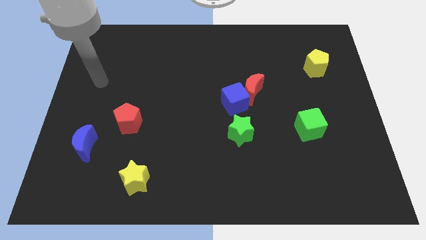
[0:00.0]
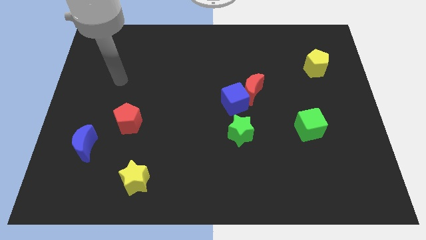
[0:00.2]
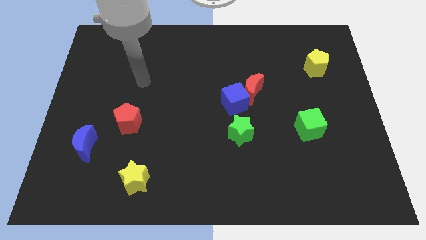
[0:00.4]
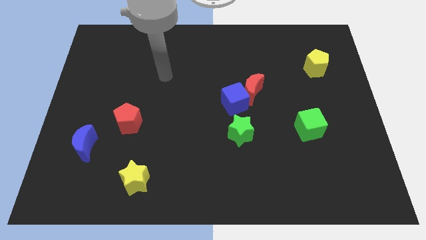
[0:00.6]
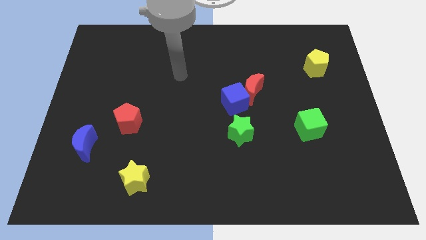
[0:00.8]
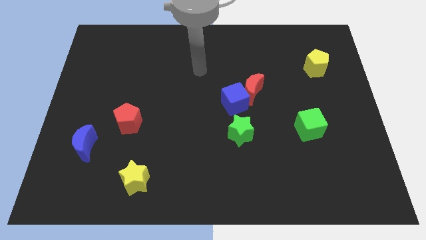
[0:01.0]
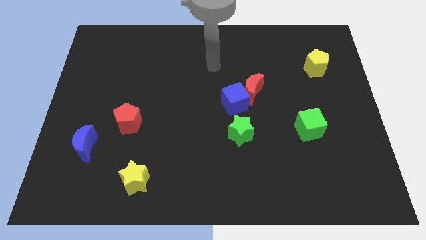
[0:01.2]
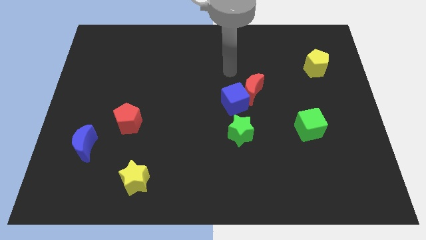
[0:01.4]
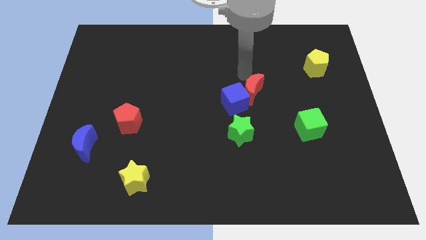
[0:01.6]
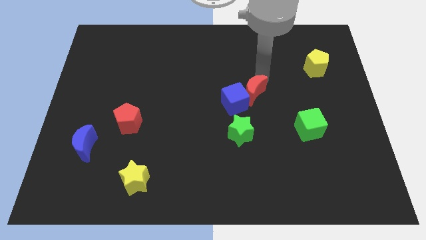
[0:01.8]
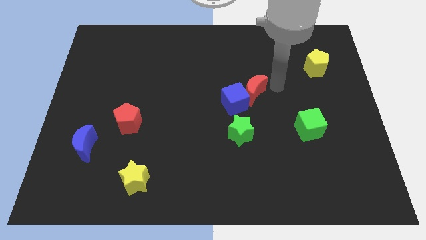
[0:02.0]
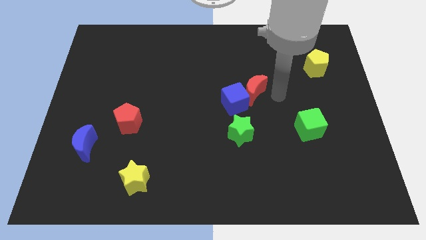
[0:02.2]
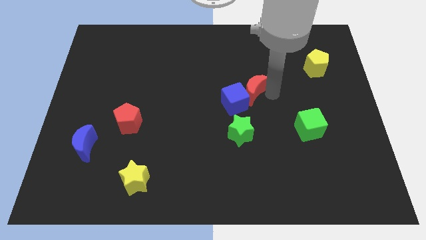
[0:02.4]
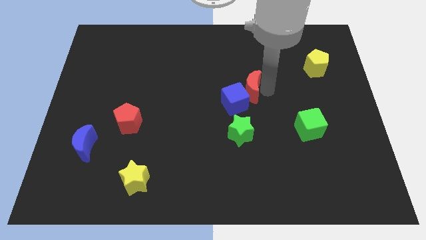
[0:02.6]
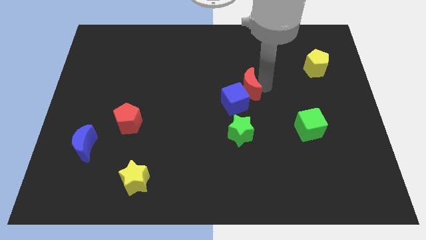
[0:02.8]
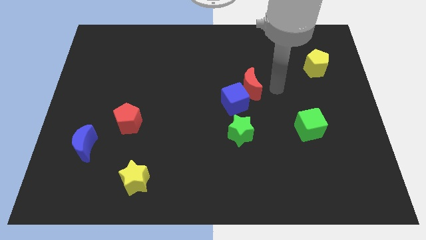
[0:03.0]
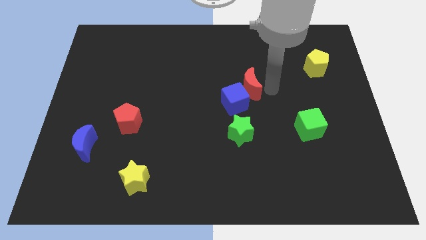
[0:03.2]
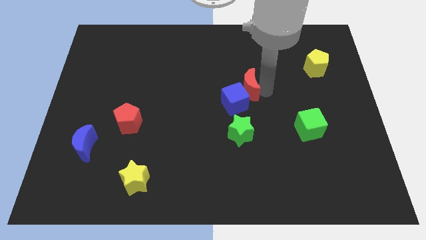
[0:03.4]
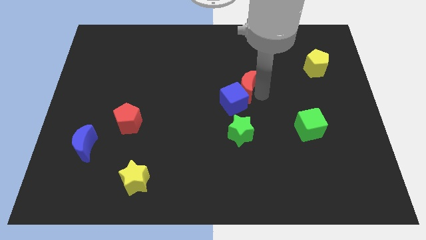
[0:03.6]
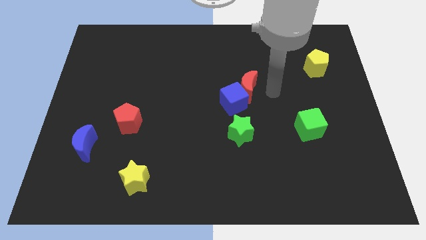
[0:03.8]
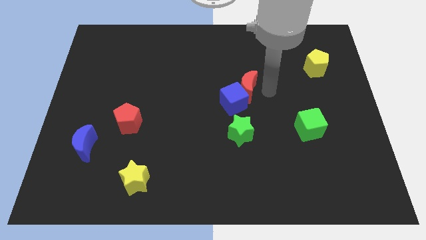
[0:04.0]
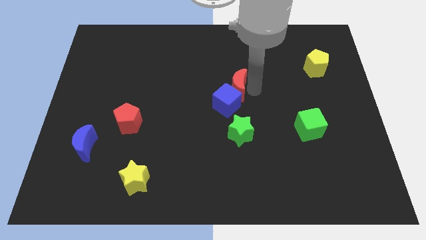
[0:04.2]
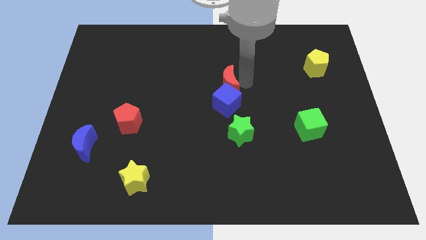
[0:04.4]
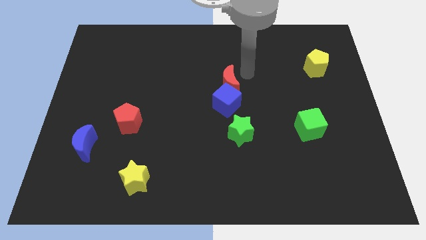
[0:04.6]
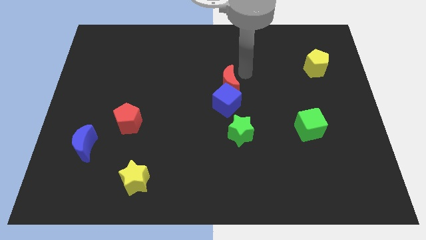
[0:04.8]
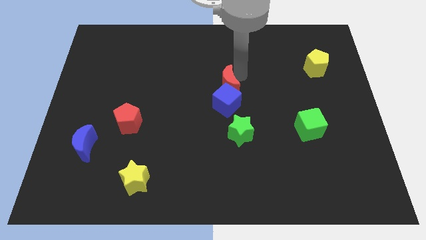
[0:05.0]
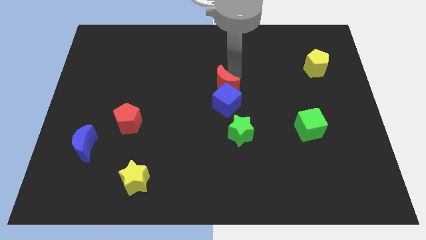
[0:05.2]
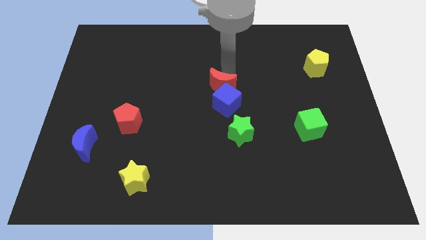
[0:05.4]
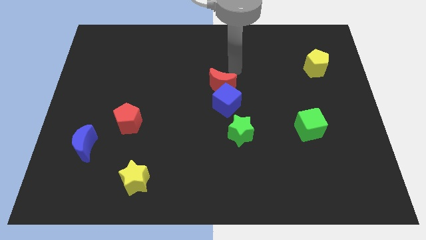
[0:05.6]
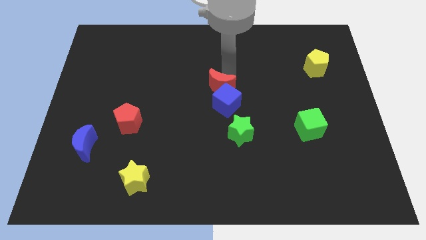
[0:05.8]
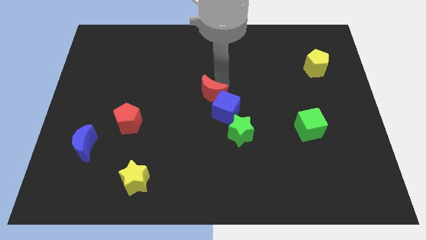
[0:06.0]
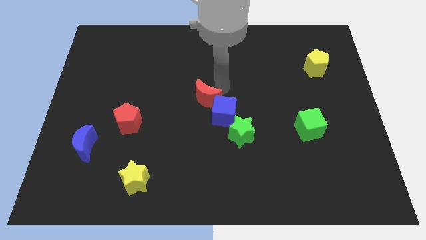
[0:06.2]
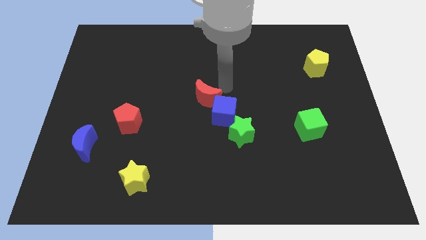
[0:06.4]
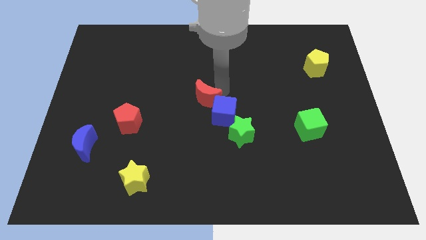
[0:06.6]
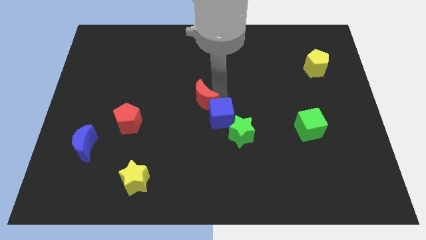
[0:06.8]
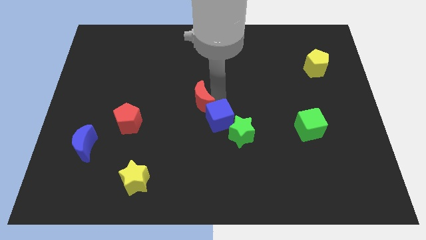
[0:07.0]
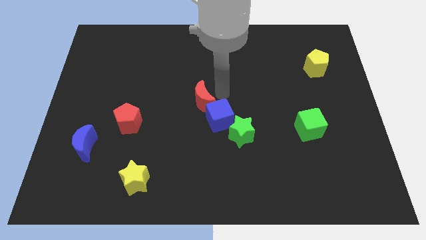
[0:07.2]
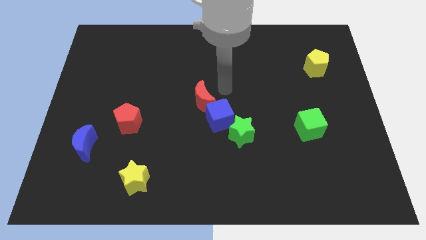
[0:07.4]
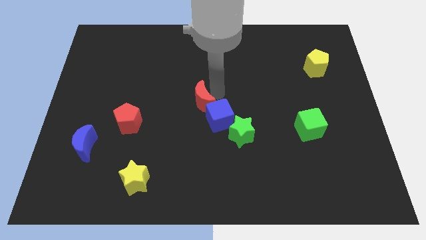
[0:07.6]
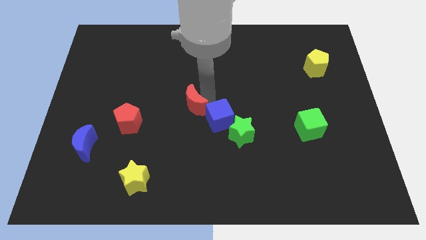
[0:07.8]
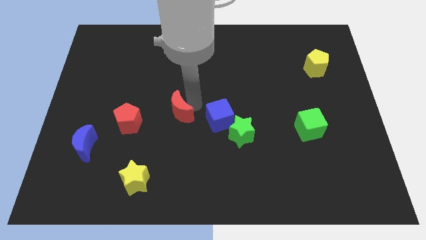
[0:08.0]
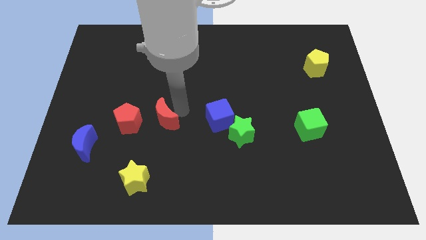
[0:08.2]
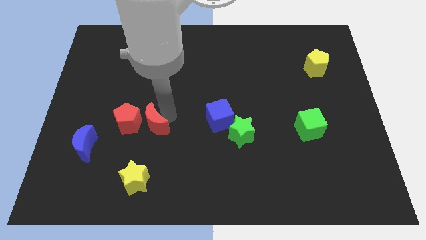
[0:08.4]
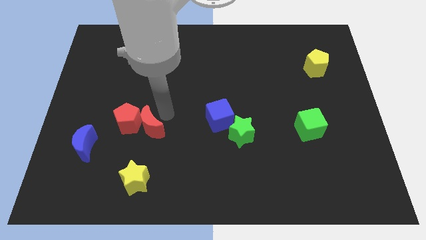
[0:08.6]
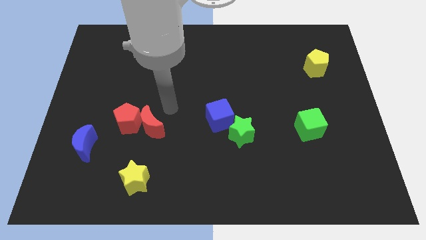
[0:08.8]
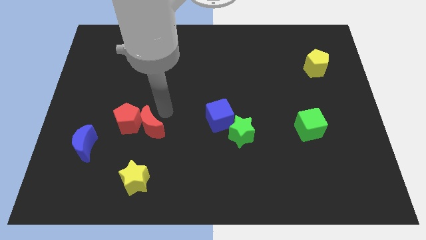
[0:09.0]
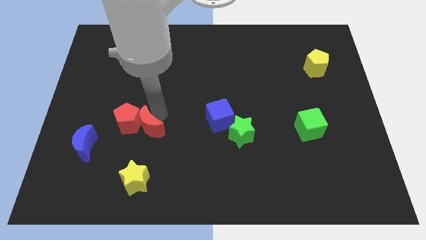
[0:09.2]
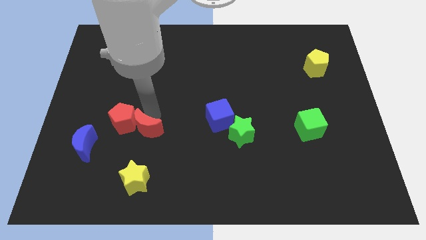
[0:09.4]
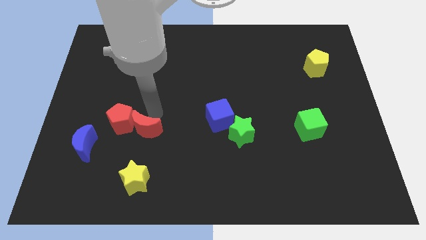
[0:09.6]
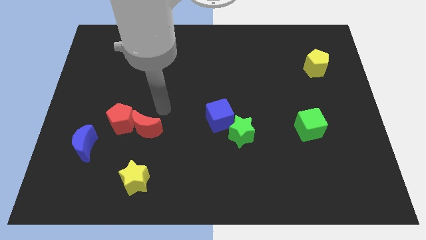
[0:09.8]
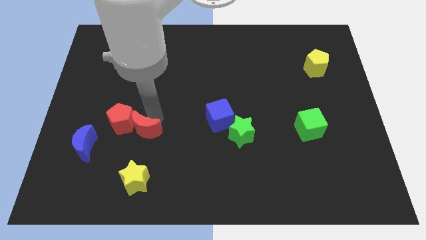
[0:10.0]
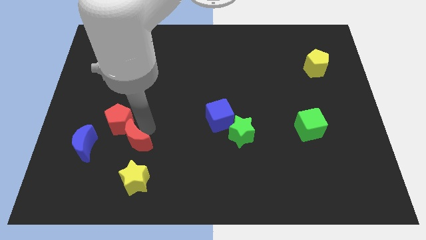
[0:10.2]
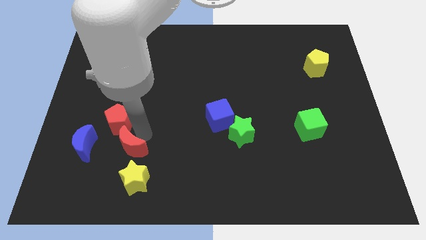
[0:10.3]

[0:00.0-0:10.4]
slide the red moon diagonally up and to the left of the yellow star
